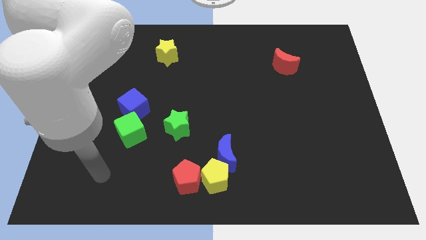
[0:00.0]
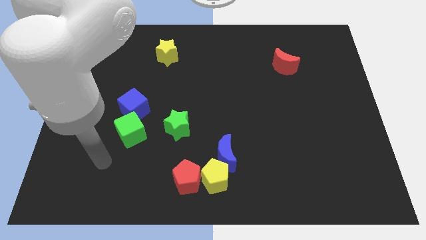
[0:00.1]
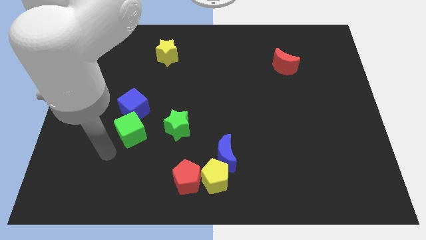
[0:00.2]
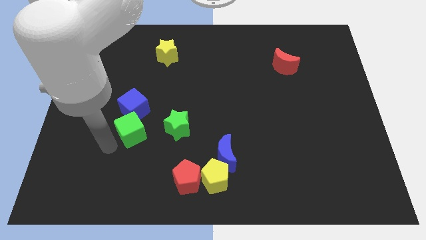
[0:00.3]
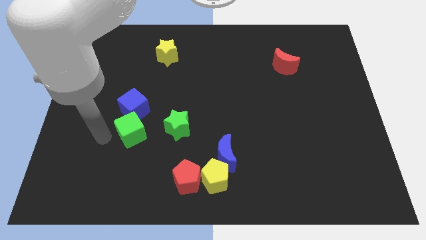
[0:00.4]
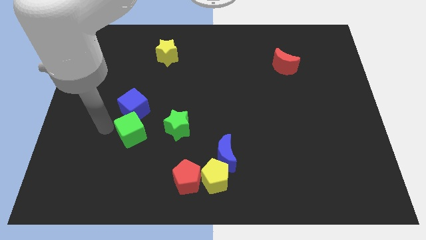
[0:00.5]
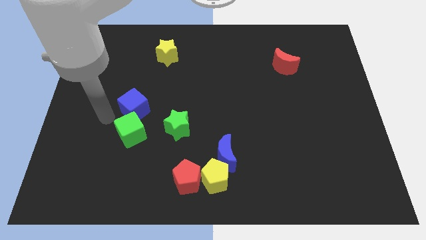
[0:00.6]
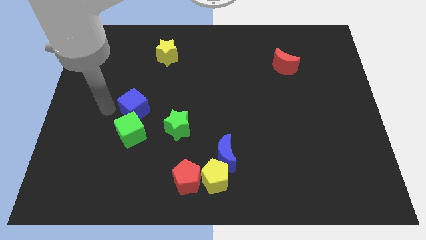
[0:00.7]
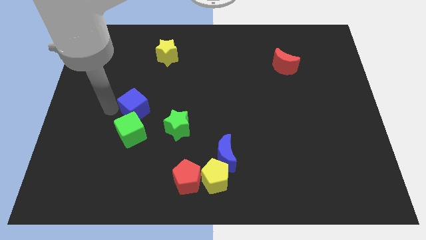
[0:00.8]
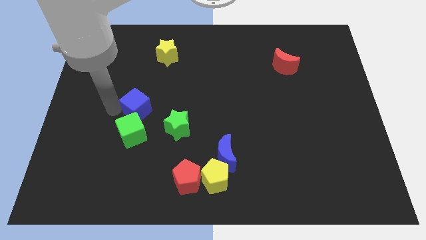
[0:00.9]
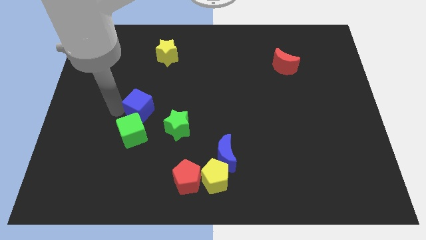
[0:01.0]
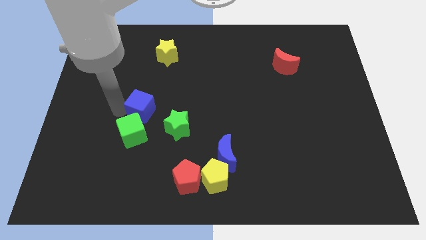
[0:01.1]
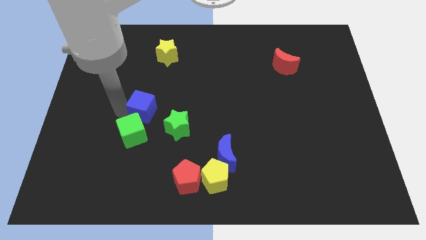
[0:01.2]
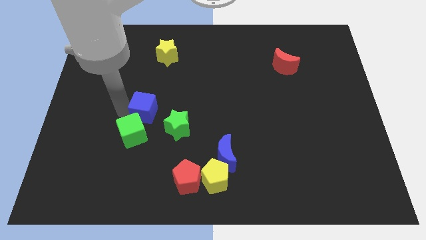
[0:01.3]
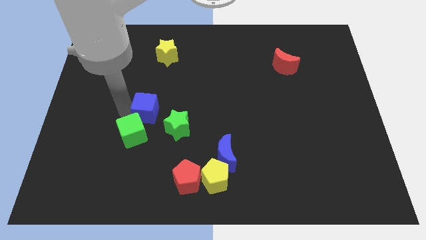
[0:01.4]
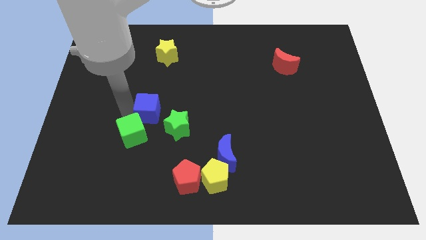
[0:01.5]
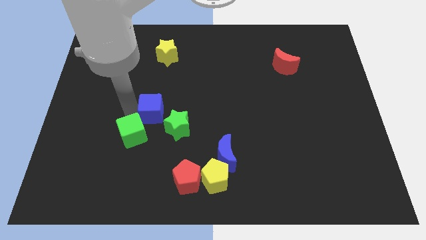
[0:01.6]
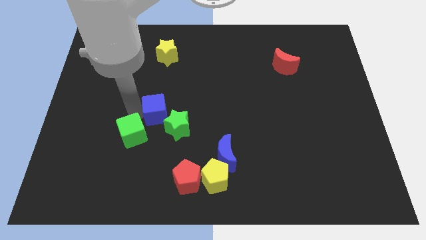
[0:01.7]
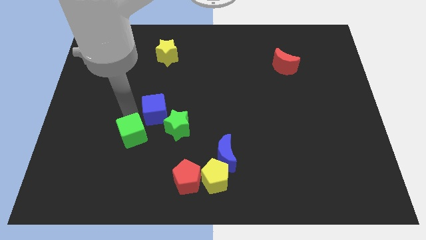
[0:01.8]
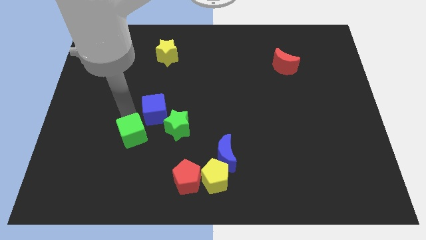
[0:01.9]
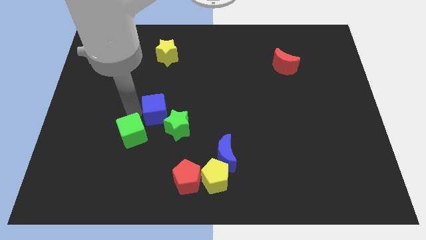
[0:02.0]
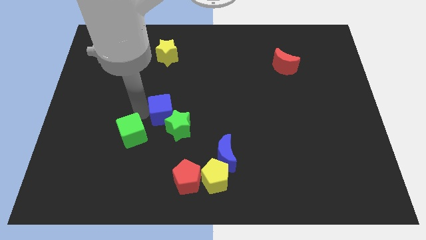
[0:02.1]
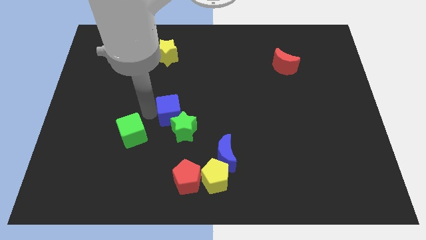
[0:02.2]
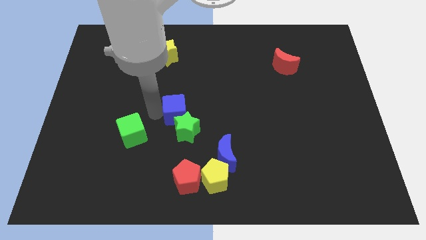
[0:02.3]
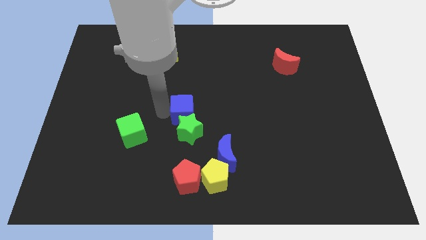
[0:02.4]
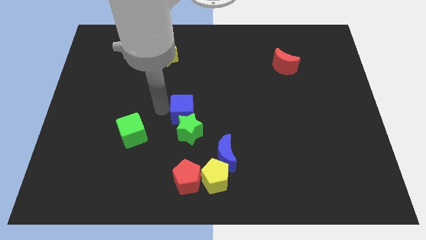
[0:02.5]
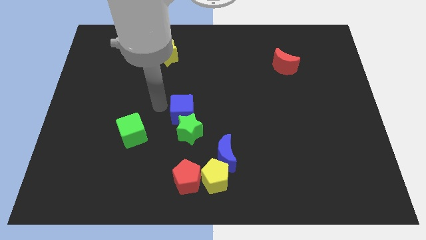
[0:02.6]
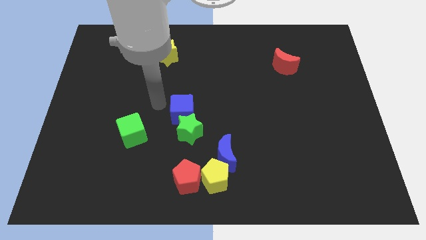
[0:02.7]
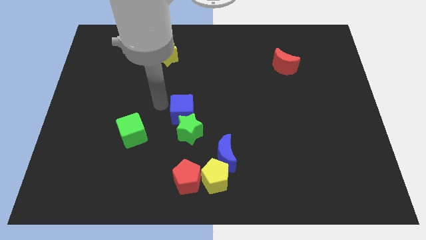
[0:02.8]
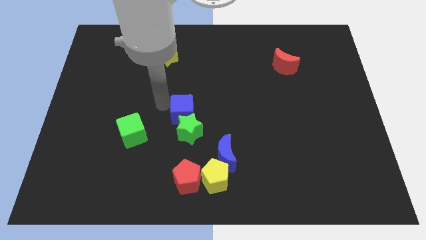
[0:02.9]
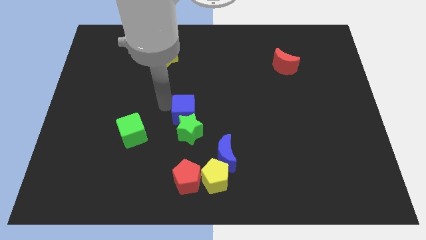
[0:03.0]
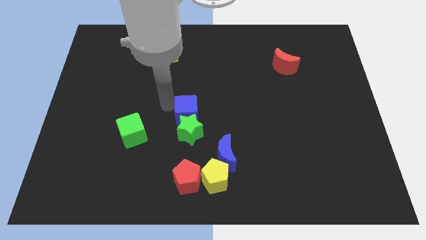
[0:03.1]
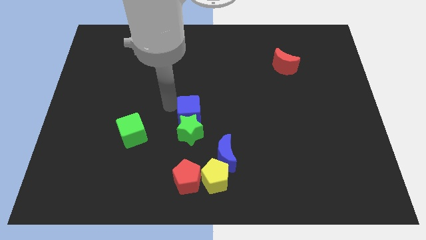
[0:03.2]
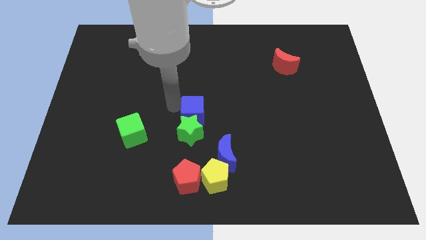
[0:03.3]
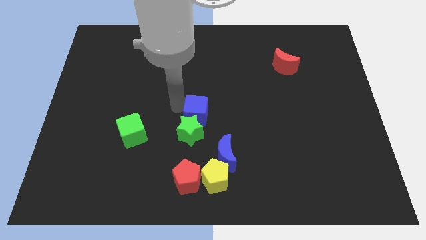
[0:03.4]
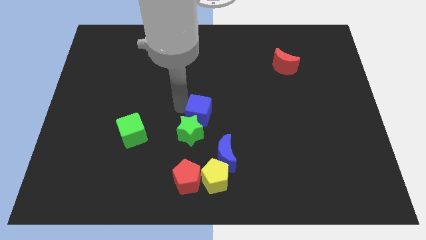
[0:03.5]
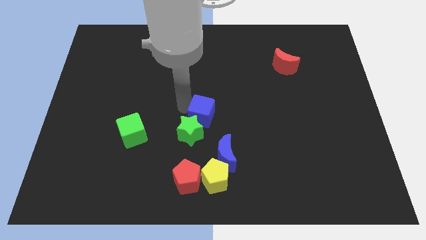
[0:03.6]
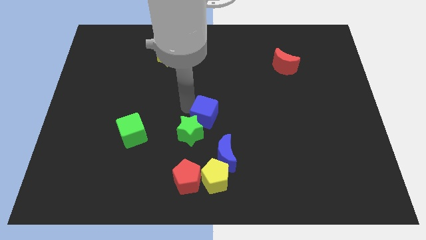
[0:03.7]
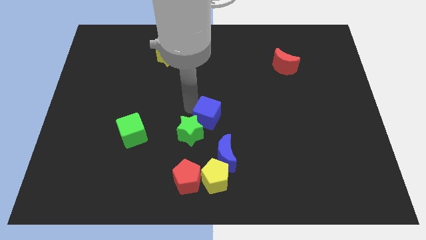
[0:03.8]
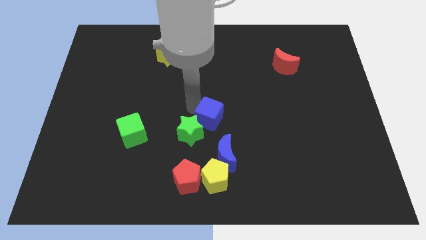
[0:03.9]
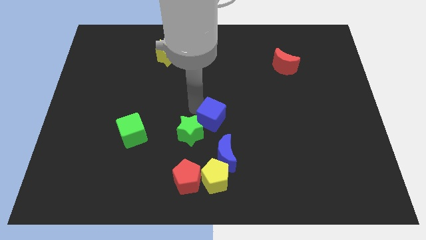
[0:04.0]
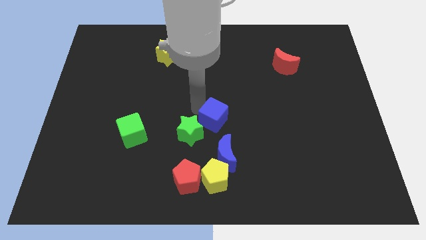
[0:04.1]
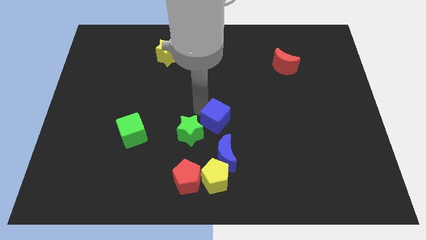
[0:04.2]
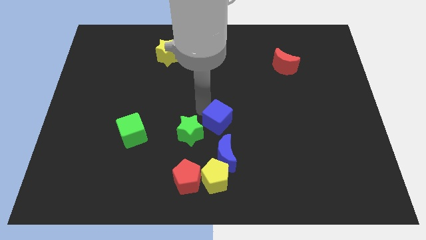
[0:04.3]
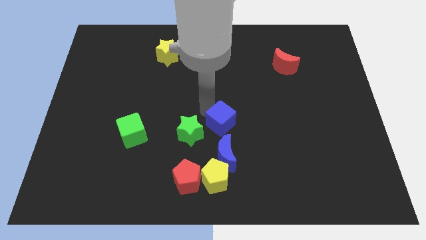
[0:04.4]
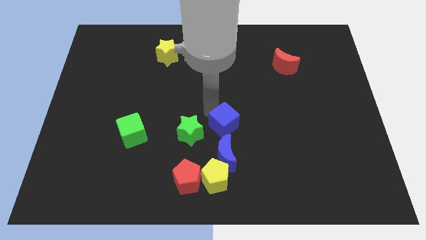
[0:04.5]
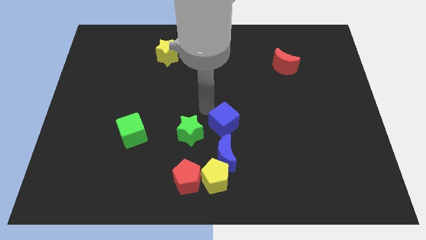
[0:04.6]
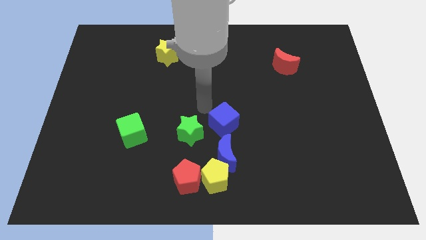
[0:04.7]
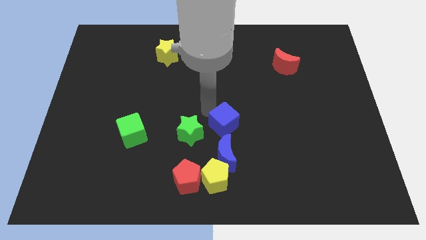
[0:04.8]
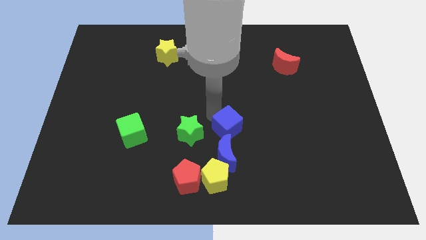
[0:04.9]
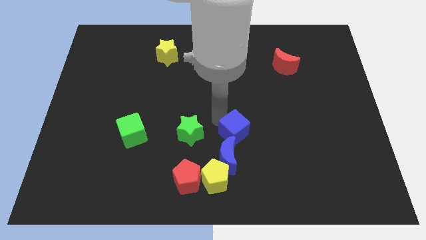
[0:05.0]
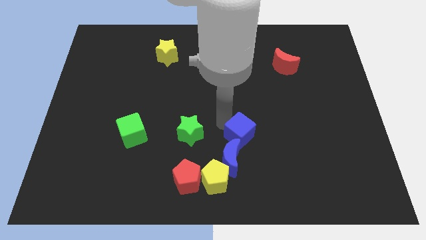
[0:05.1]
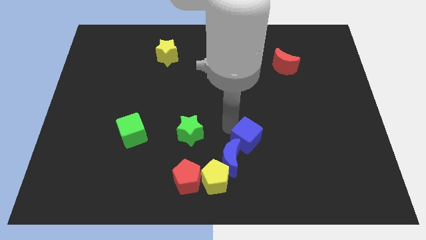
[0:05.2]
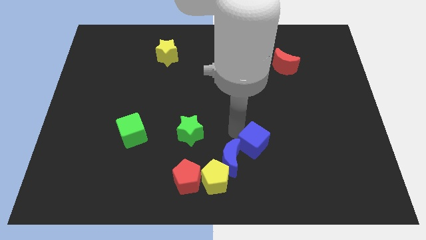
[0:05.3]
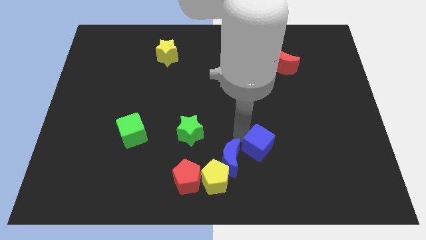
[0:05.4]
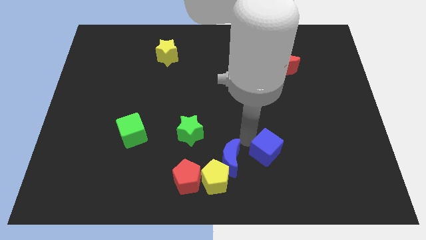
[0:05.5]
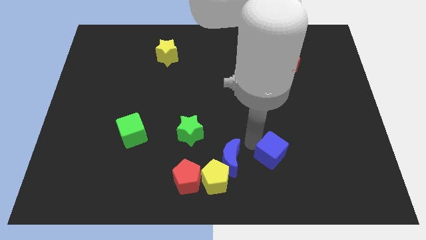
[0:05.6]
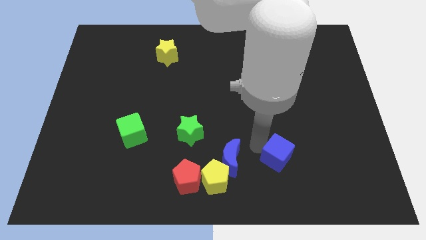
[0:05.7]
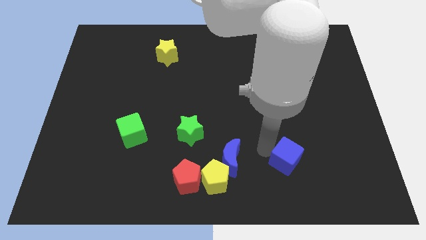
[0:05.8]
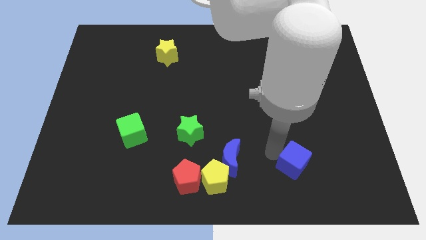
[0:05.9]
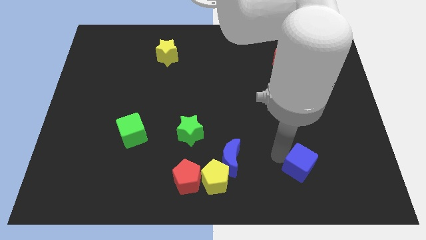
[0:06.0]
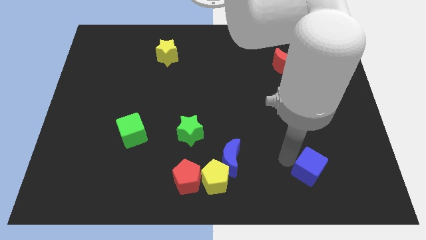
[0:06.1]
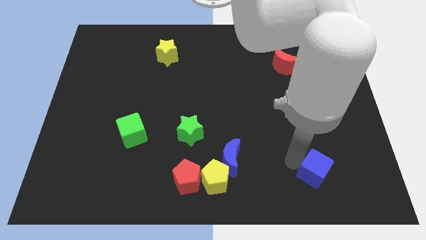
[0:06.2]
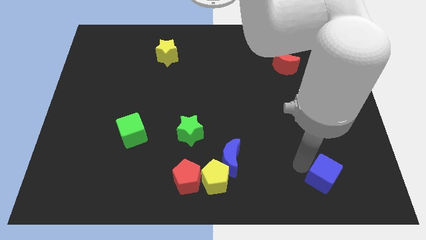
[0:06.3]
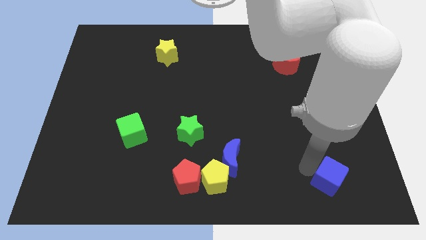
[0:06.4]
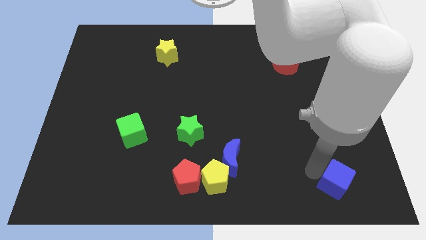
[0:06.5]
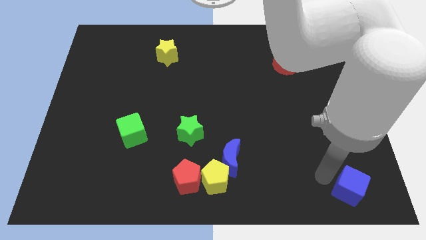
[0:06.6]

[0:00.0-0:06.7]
push the blue cube to the bottom right corner
